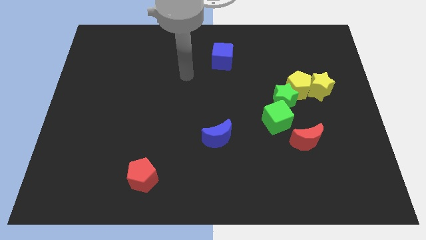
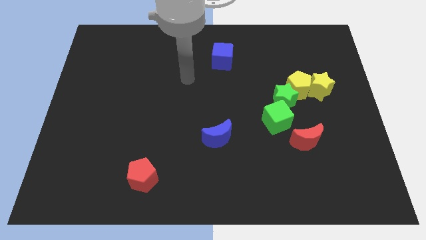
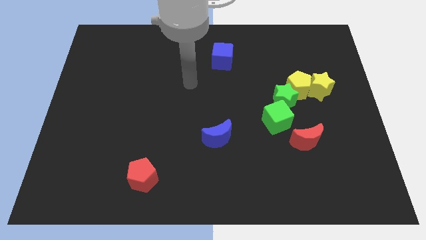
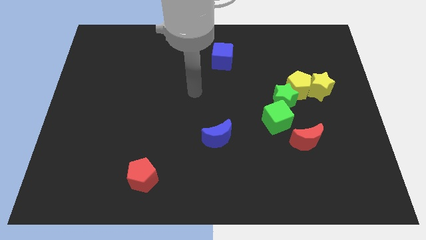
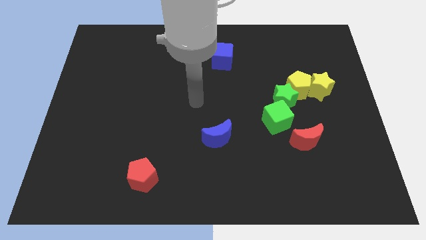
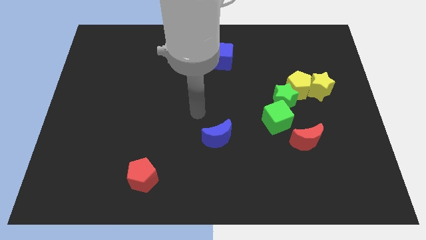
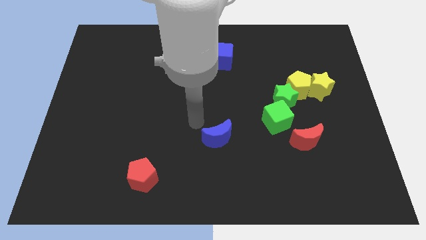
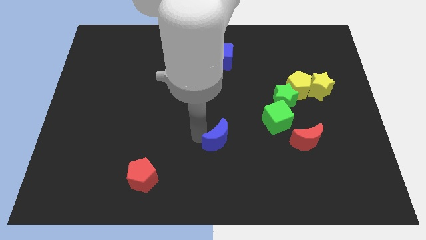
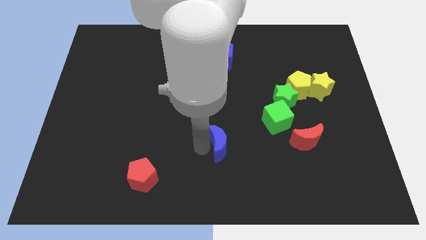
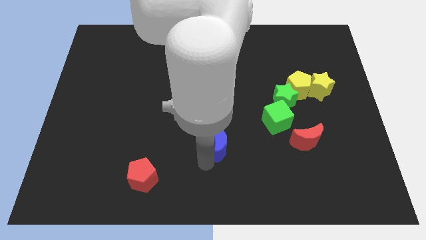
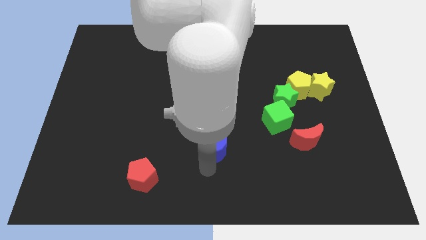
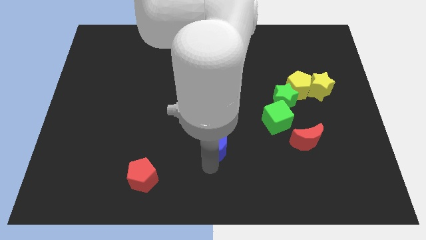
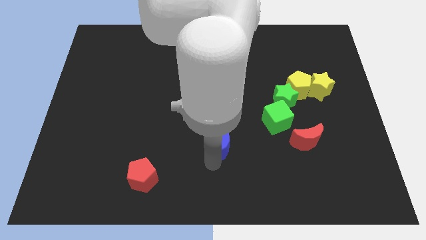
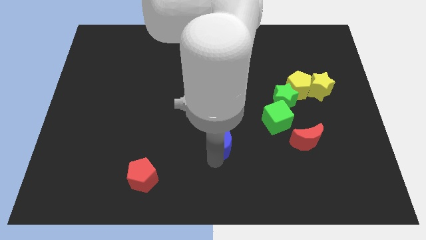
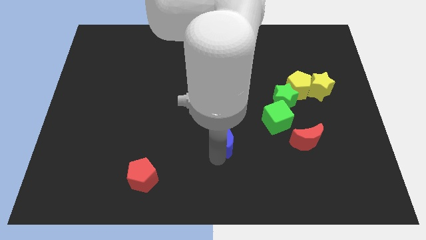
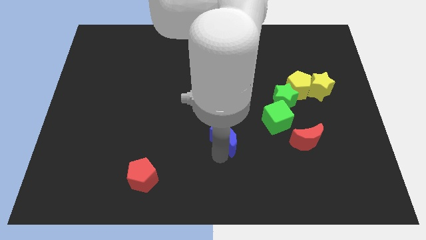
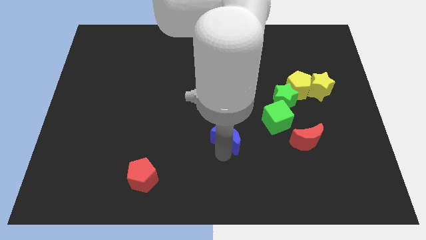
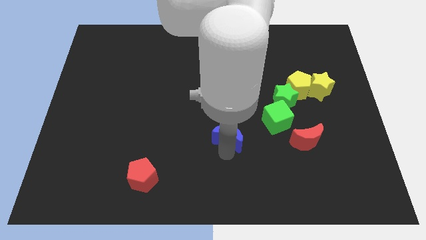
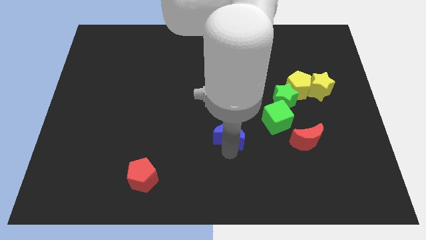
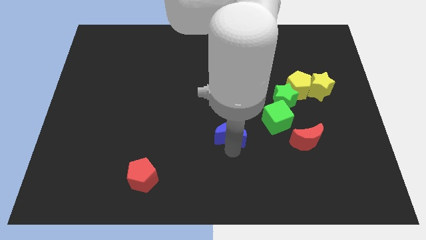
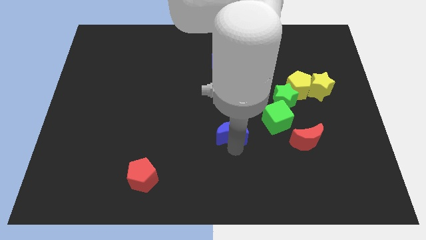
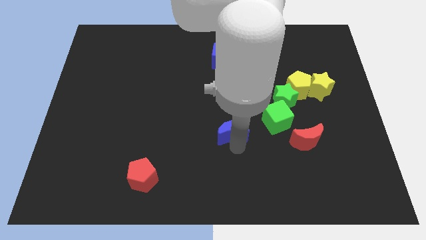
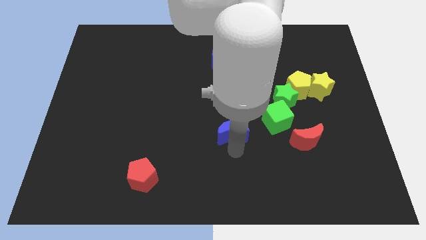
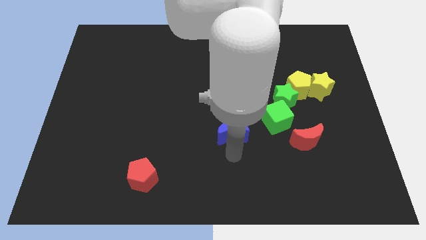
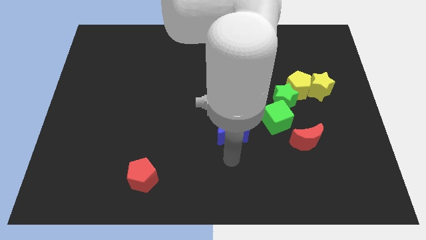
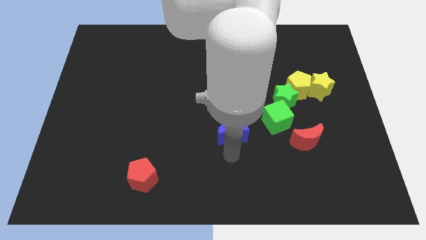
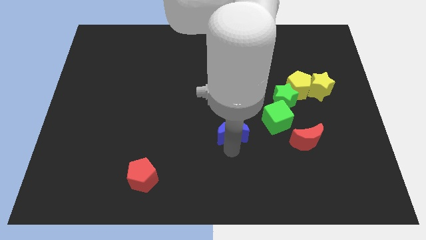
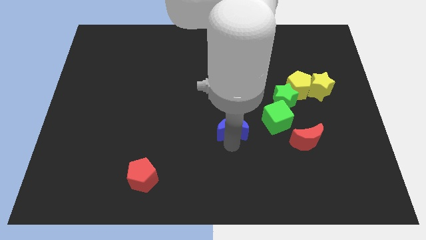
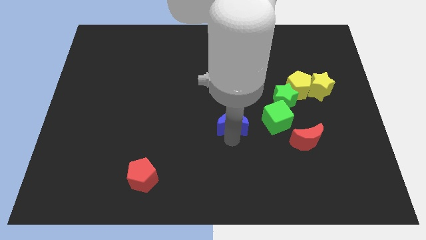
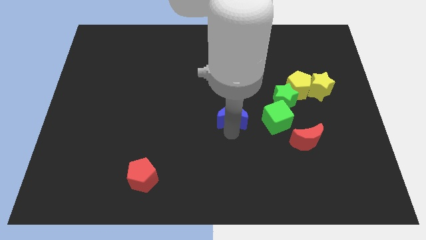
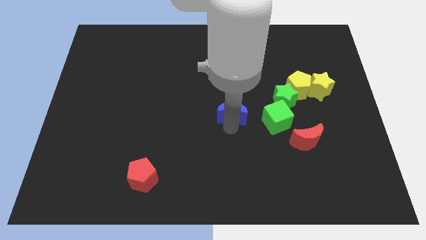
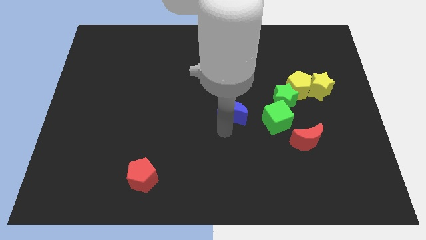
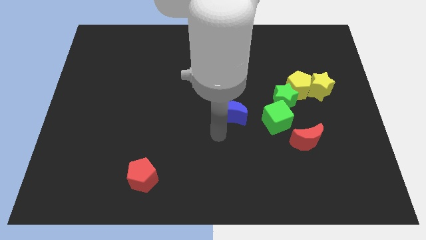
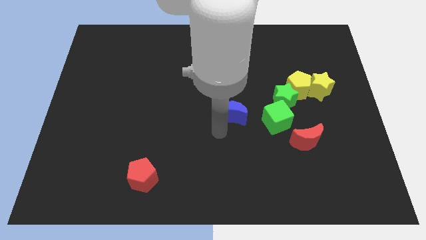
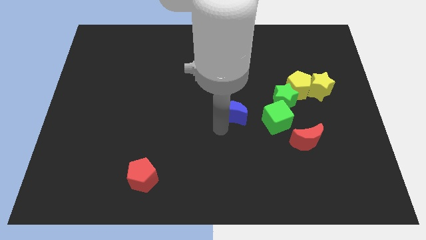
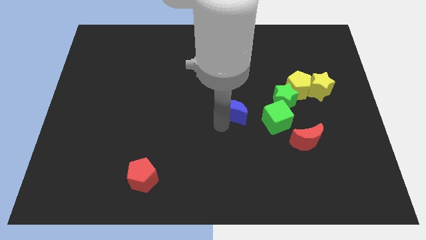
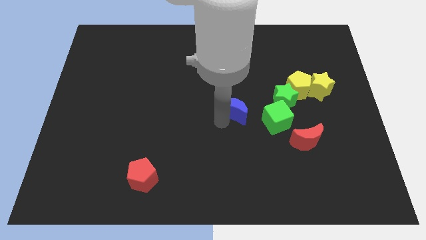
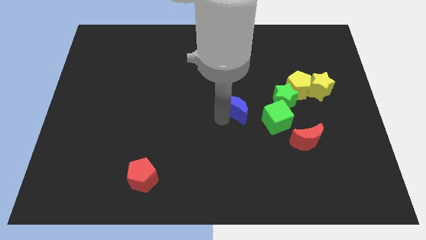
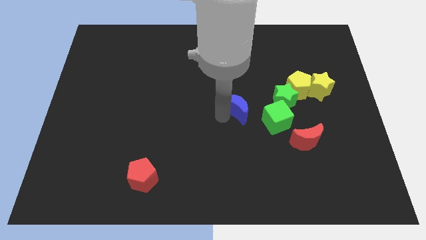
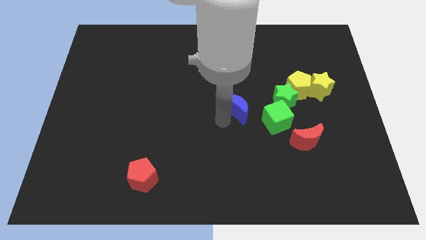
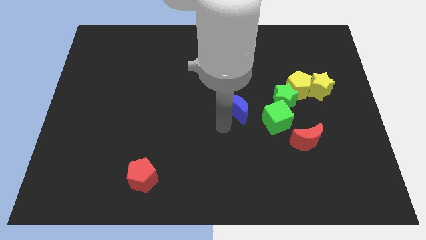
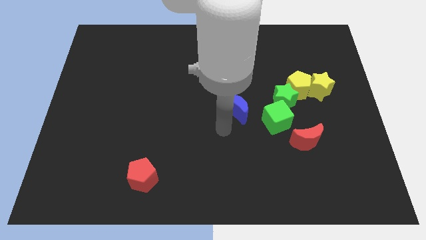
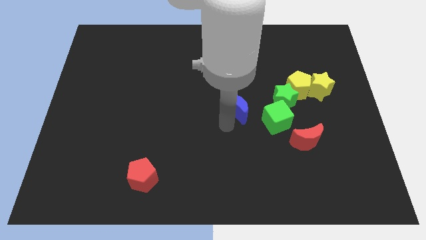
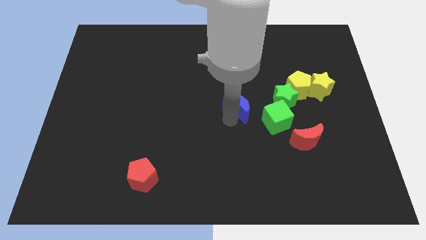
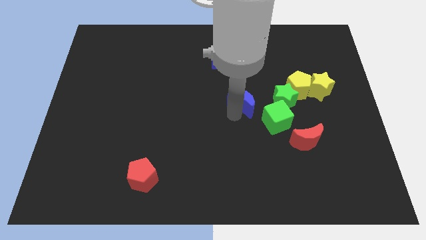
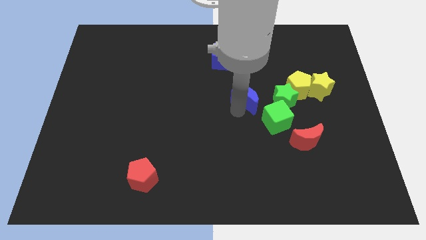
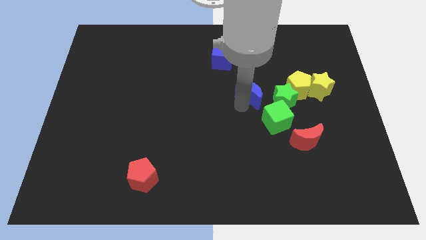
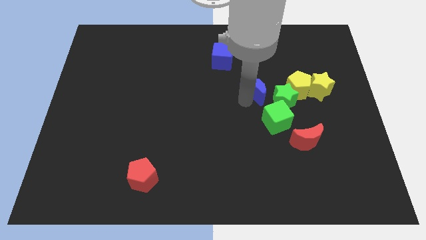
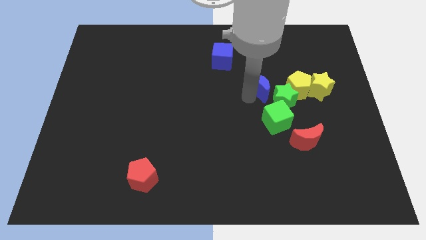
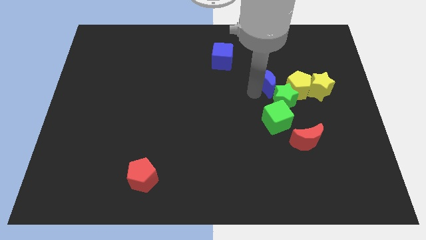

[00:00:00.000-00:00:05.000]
slide the blue moon to the top of the green star

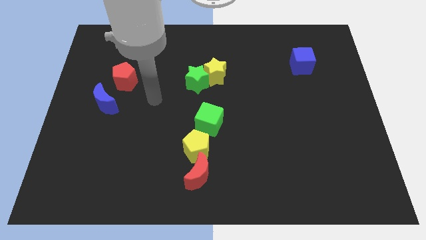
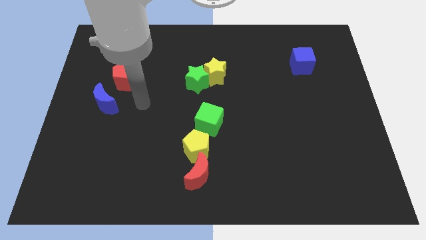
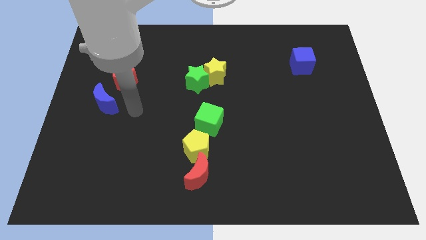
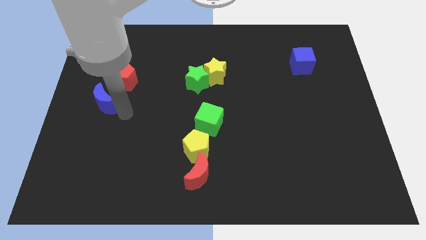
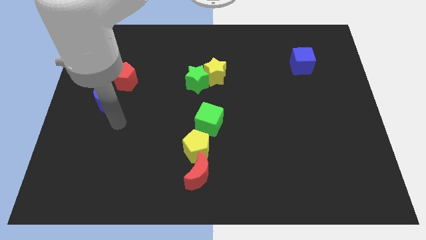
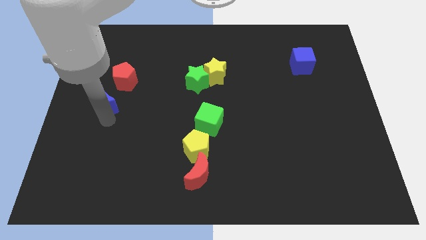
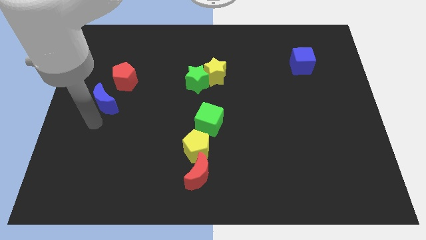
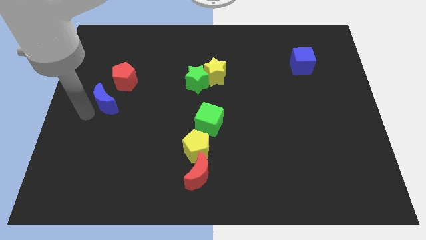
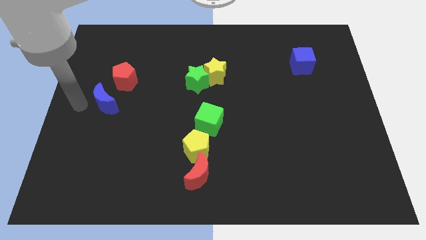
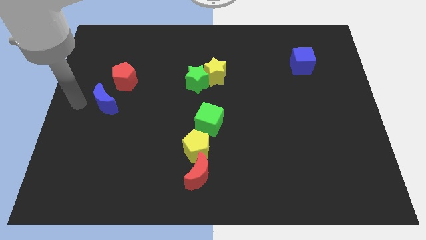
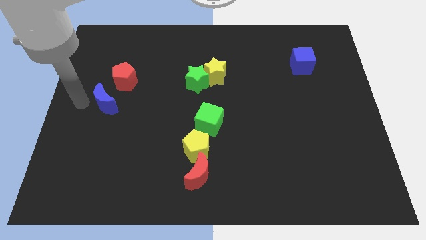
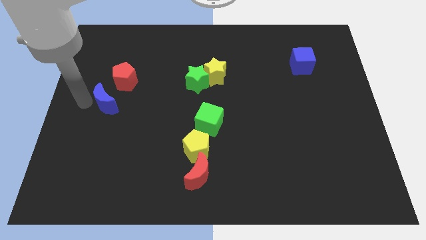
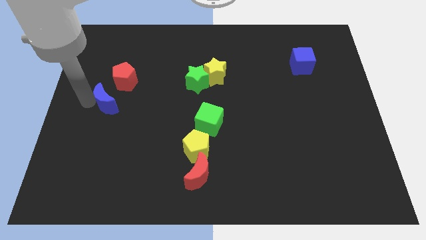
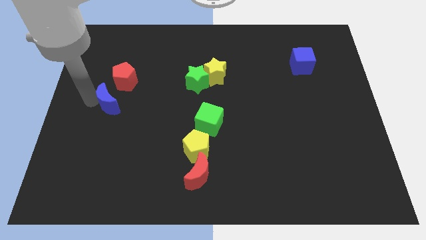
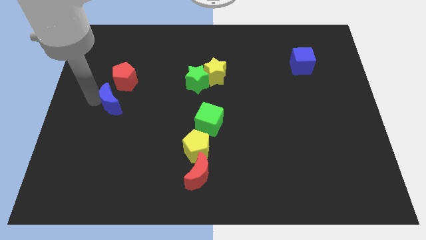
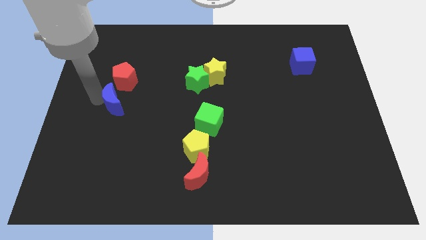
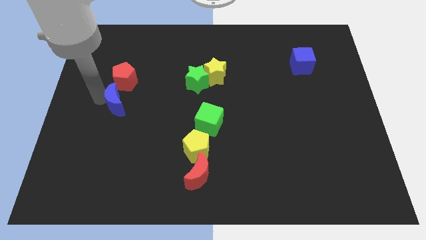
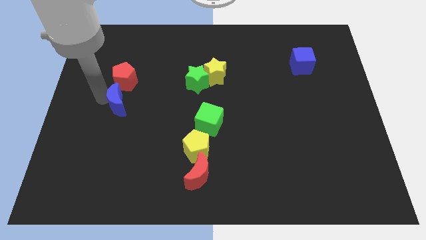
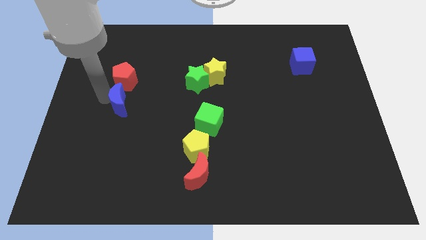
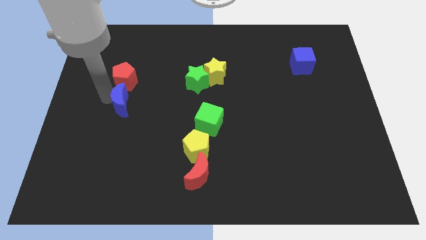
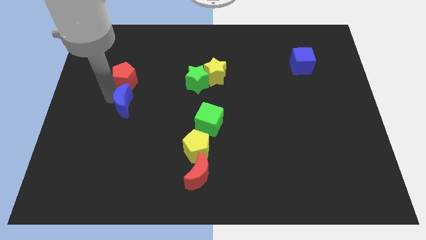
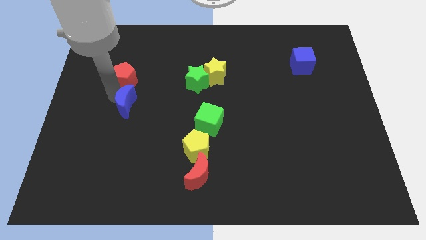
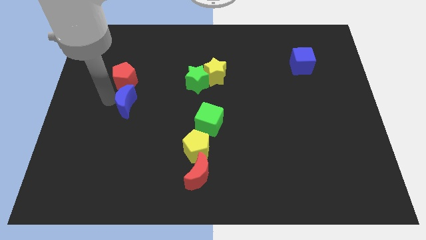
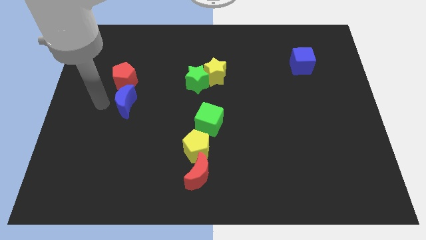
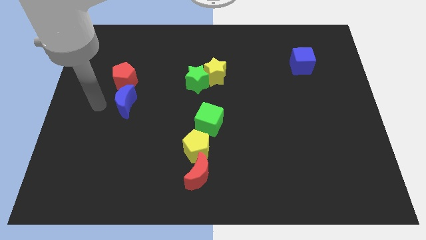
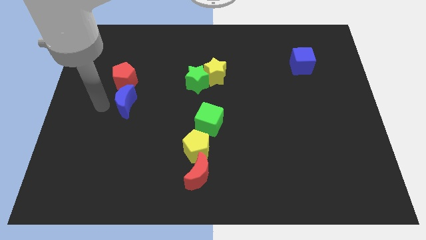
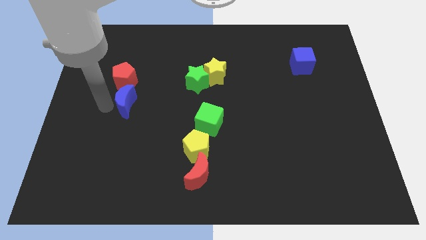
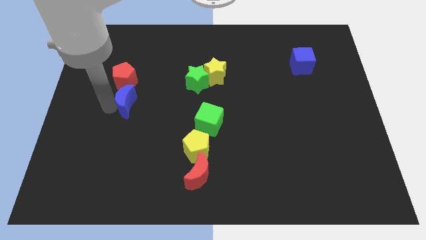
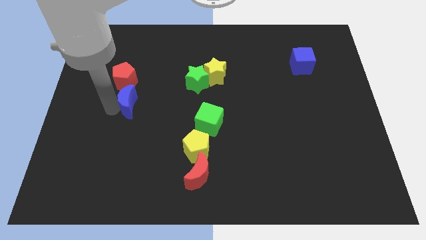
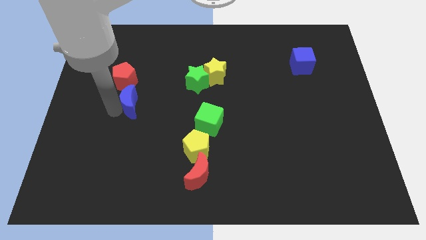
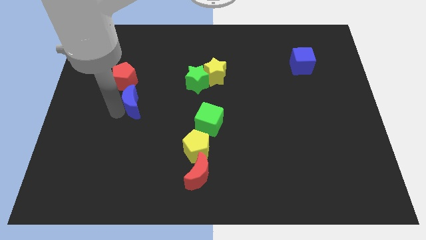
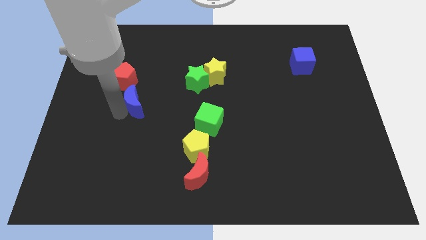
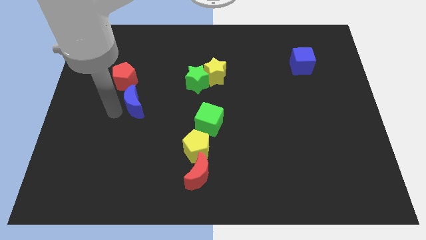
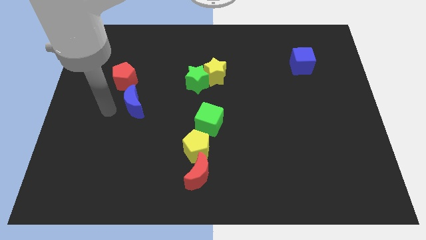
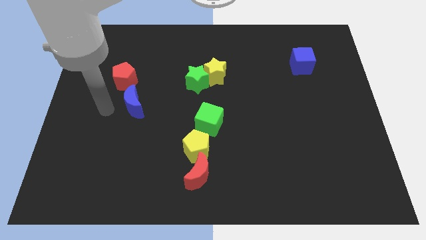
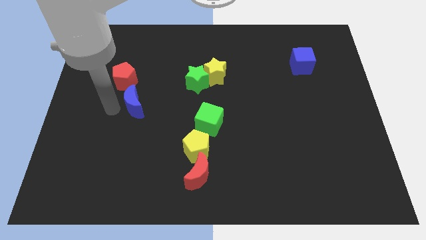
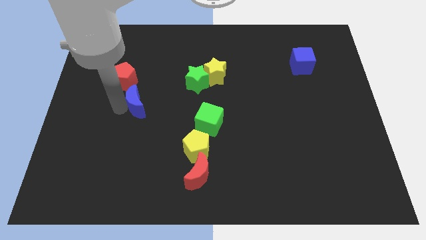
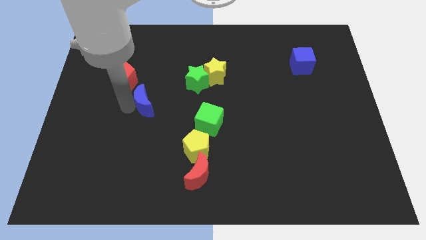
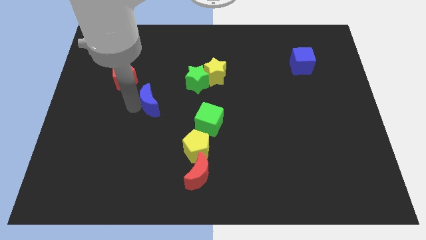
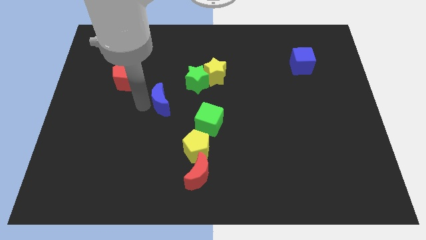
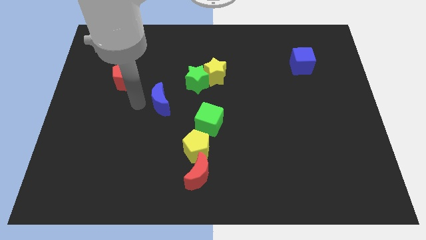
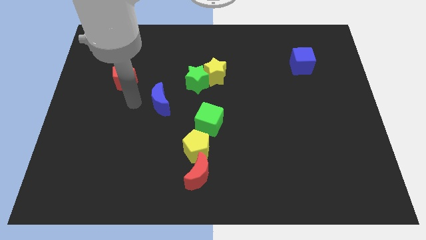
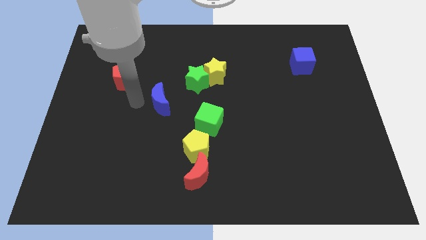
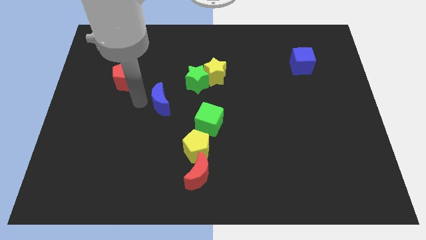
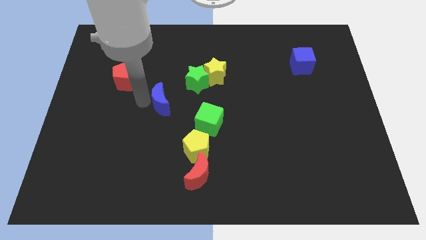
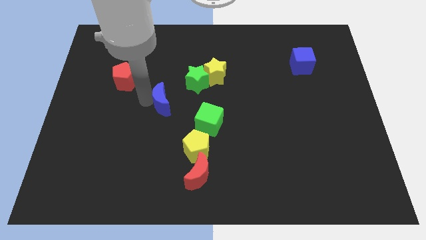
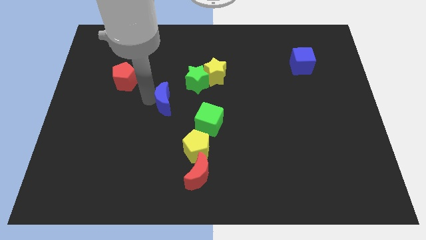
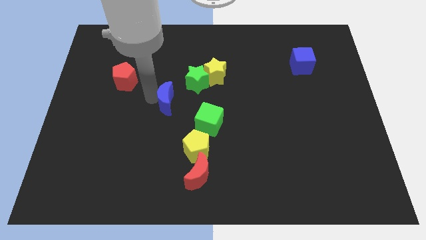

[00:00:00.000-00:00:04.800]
push the blue moon to the top left of the green cube
